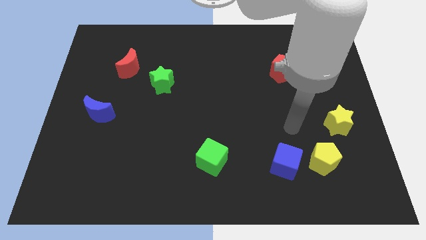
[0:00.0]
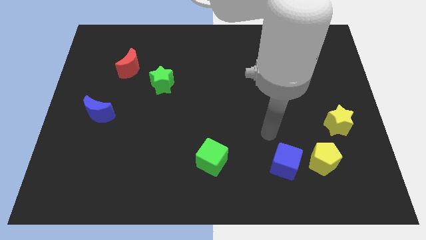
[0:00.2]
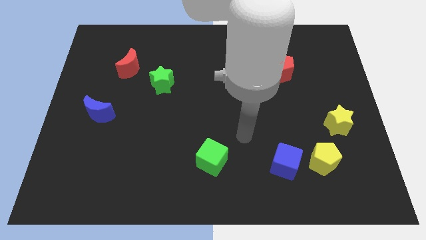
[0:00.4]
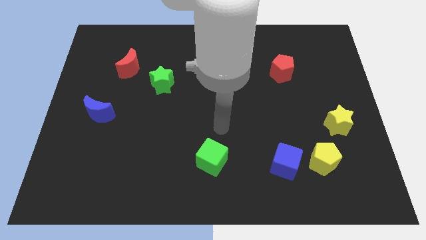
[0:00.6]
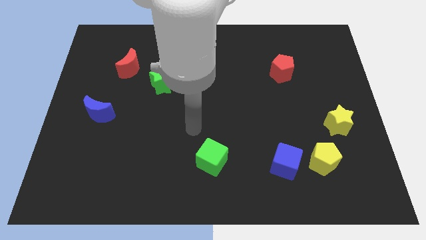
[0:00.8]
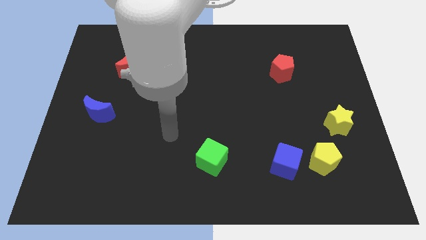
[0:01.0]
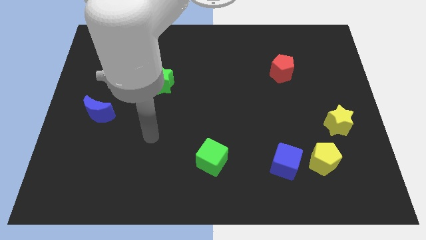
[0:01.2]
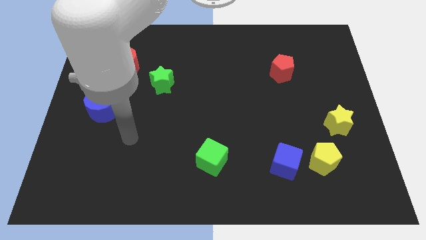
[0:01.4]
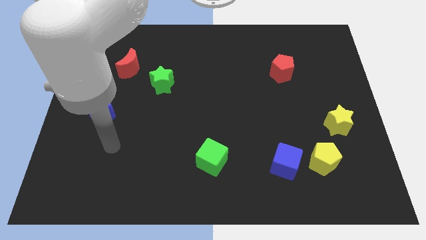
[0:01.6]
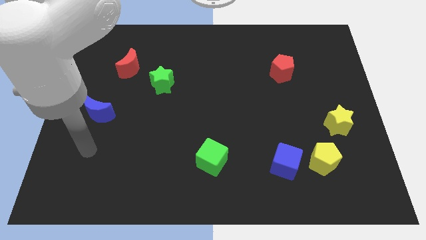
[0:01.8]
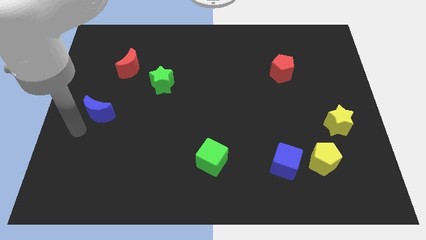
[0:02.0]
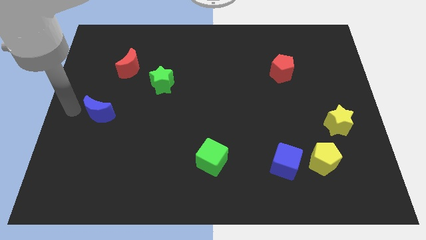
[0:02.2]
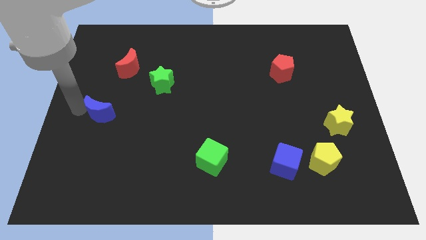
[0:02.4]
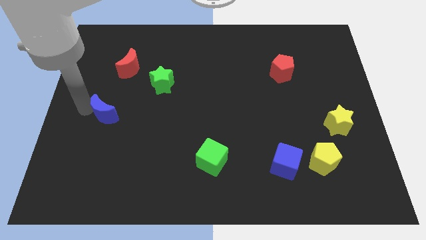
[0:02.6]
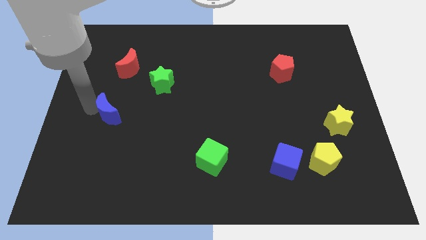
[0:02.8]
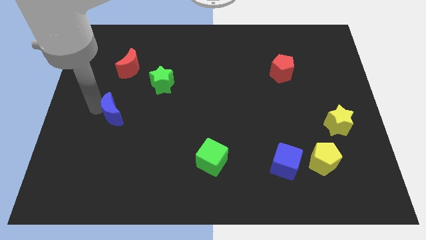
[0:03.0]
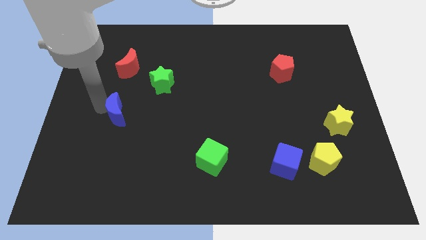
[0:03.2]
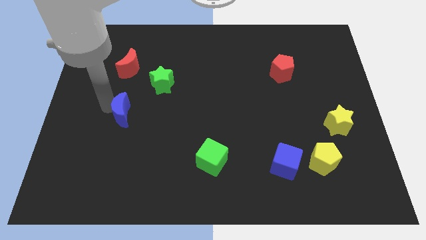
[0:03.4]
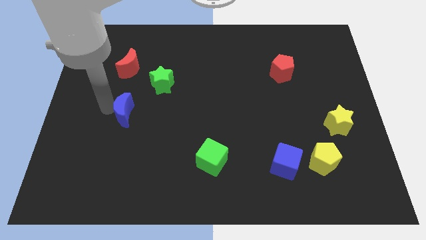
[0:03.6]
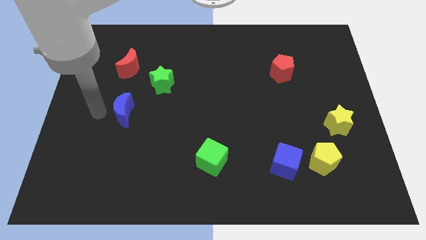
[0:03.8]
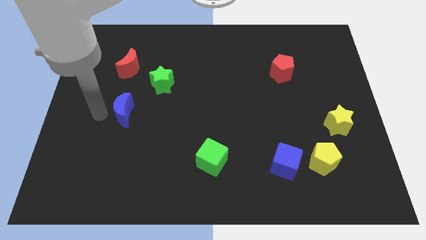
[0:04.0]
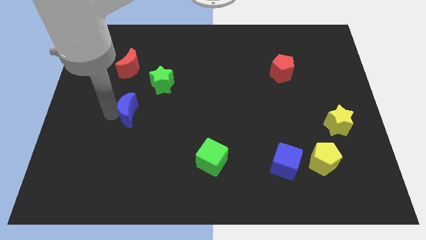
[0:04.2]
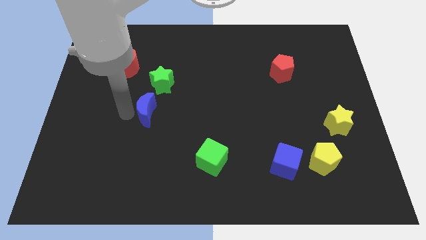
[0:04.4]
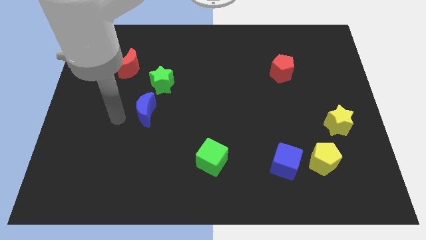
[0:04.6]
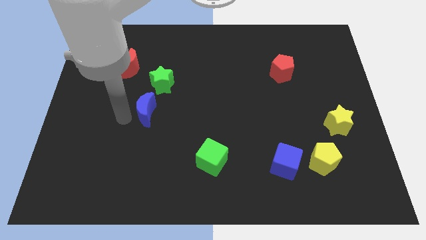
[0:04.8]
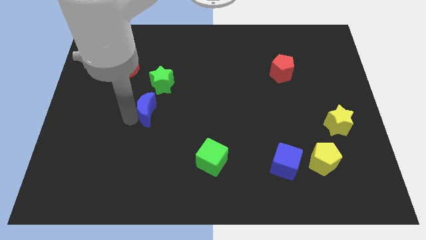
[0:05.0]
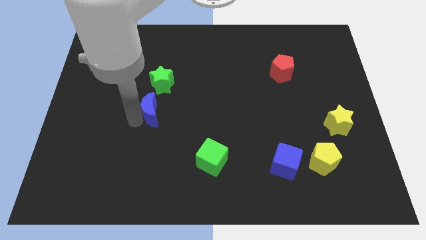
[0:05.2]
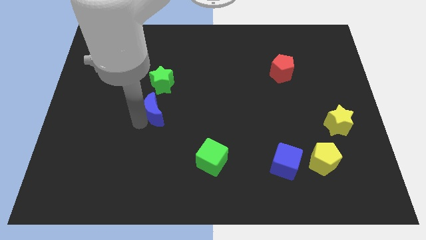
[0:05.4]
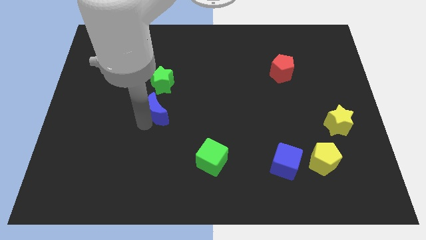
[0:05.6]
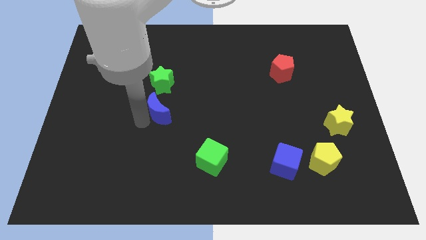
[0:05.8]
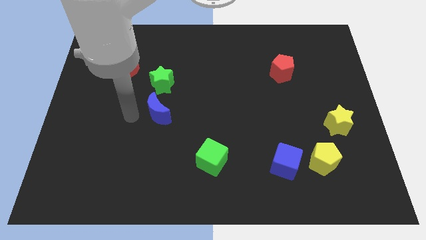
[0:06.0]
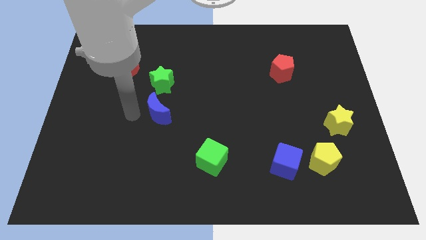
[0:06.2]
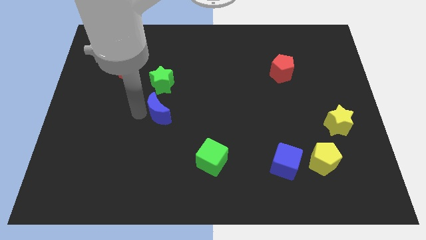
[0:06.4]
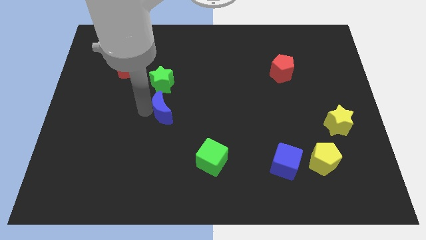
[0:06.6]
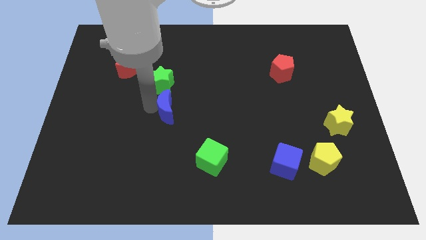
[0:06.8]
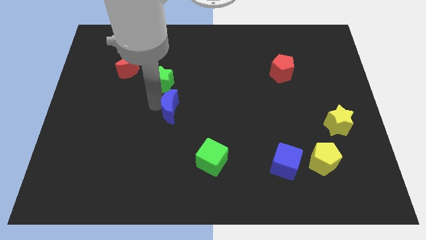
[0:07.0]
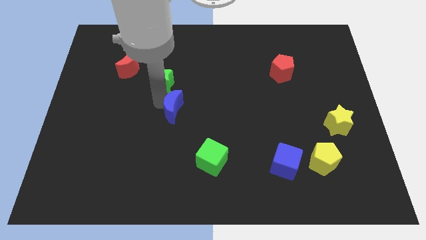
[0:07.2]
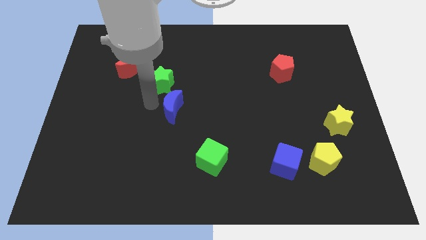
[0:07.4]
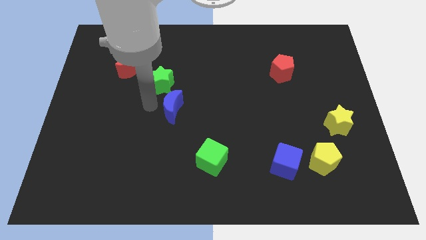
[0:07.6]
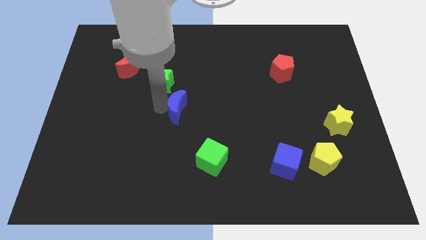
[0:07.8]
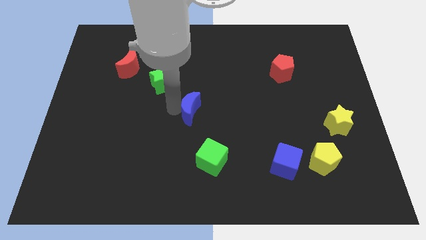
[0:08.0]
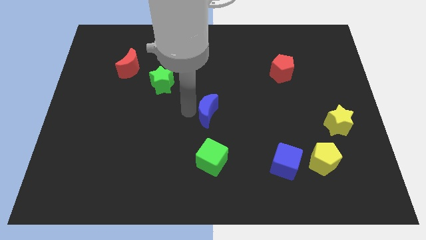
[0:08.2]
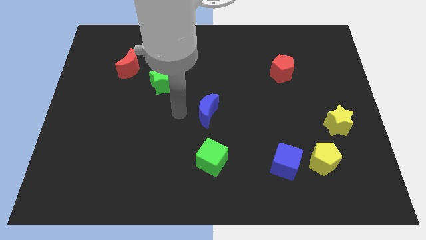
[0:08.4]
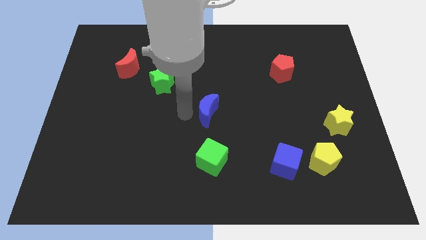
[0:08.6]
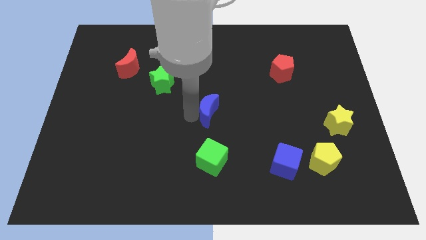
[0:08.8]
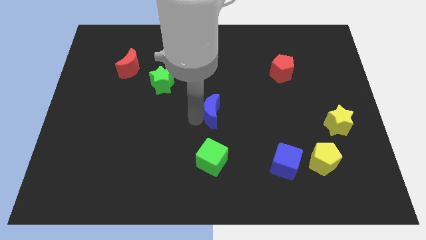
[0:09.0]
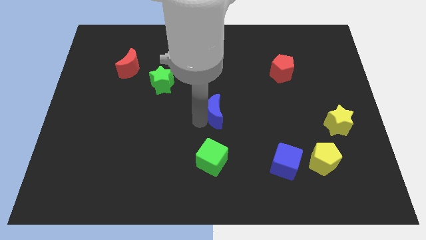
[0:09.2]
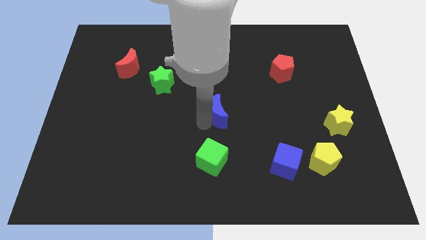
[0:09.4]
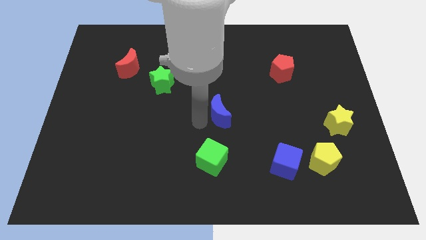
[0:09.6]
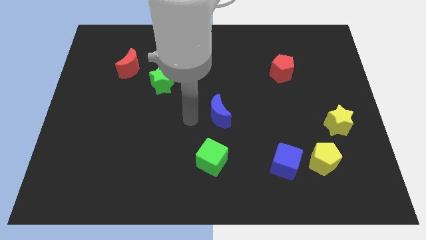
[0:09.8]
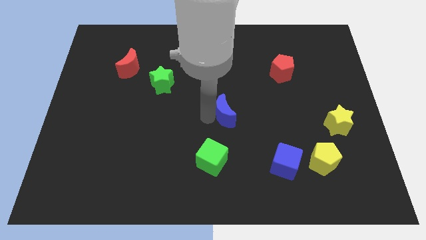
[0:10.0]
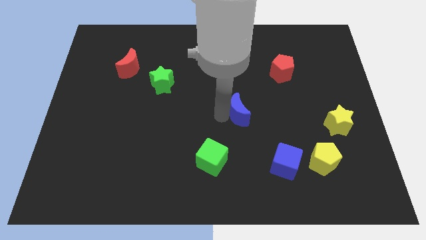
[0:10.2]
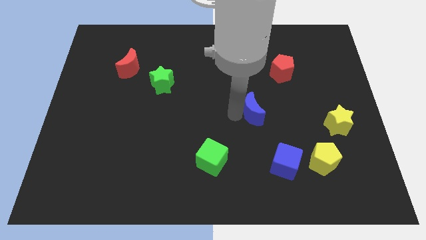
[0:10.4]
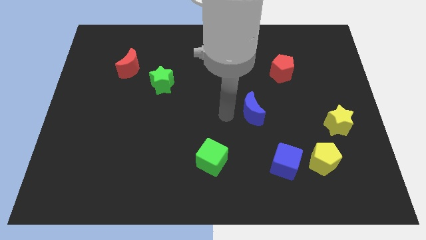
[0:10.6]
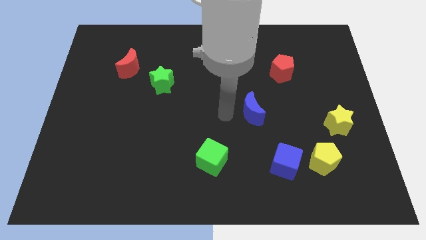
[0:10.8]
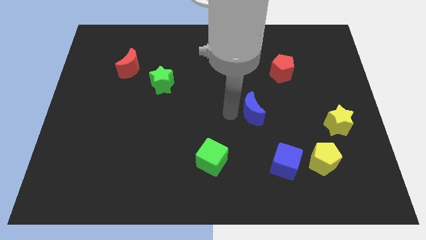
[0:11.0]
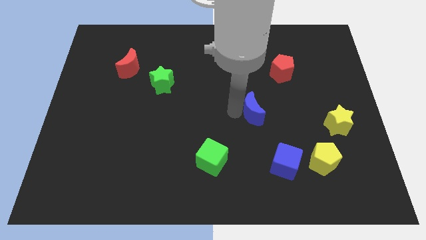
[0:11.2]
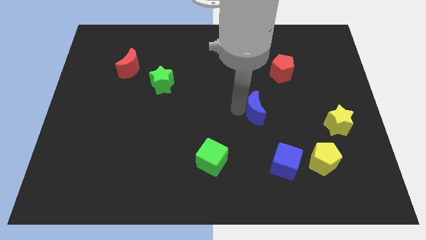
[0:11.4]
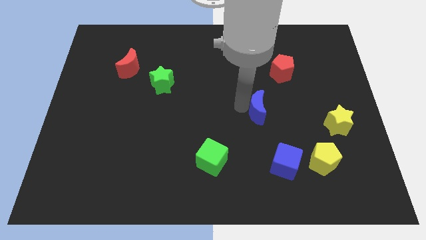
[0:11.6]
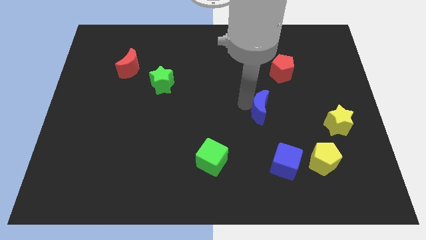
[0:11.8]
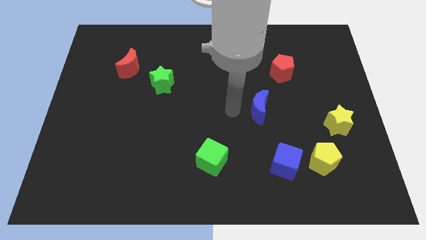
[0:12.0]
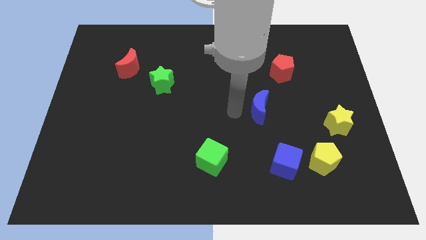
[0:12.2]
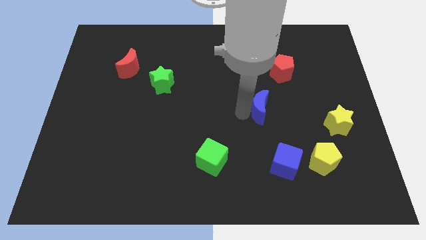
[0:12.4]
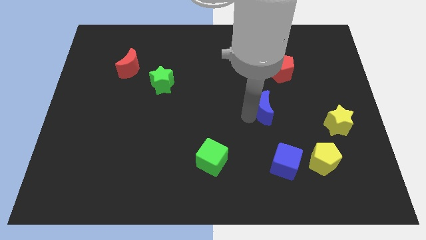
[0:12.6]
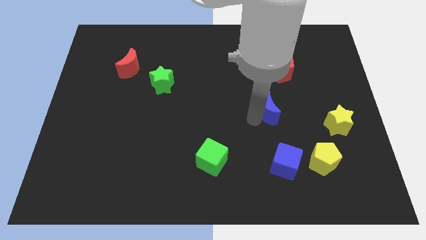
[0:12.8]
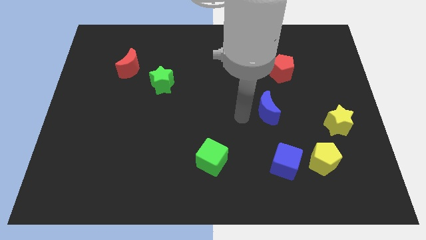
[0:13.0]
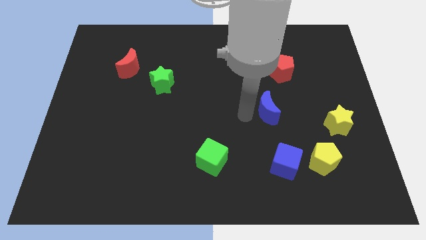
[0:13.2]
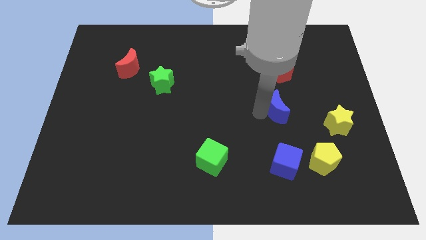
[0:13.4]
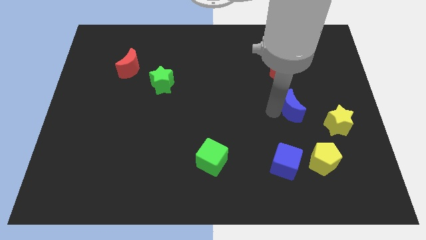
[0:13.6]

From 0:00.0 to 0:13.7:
move the blue moon to the top left of the yellow star
